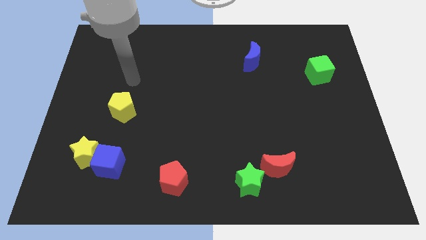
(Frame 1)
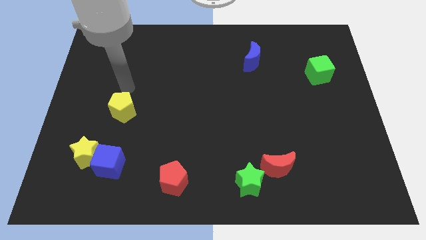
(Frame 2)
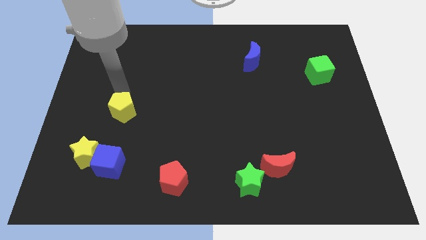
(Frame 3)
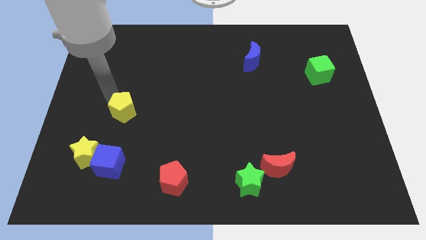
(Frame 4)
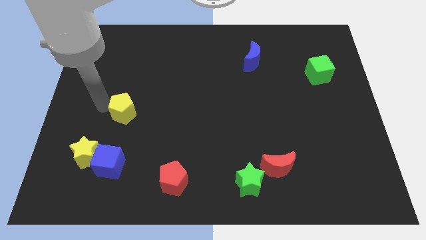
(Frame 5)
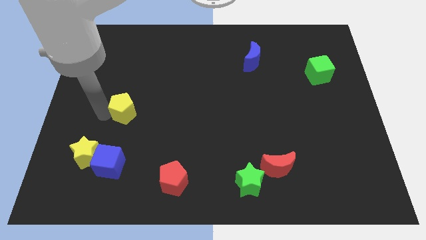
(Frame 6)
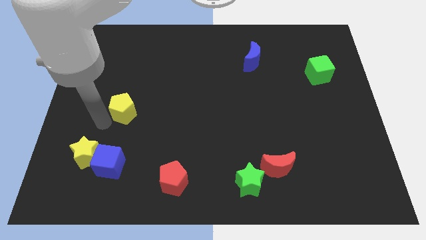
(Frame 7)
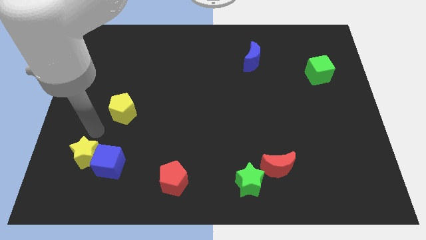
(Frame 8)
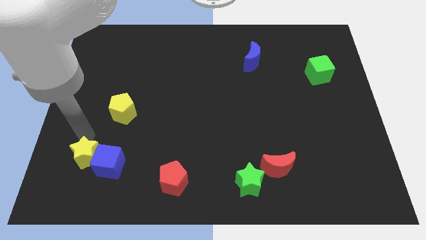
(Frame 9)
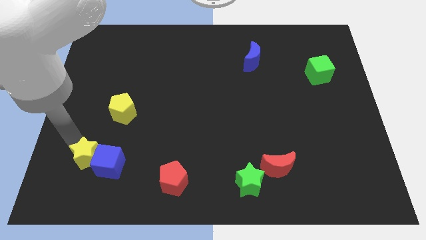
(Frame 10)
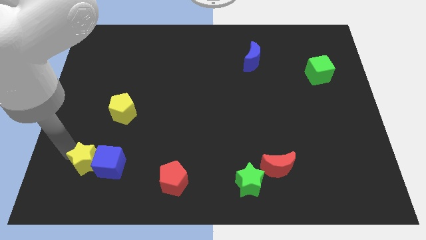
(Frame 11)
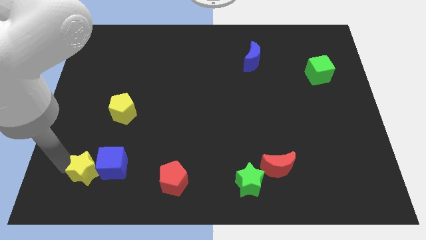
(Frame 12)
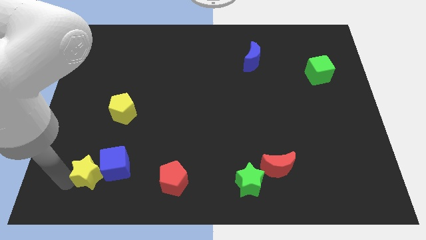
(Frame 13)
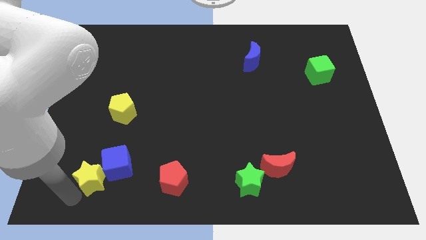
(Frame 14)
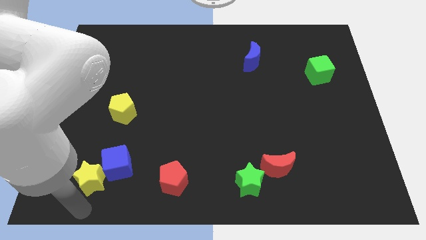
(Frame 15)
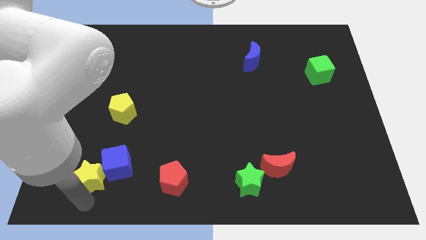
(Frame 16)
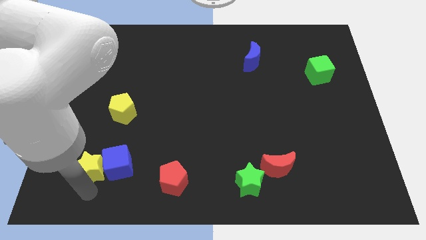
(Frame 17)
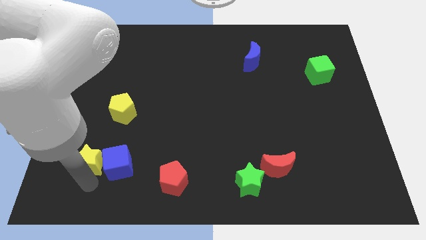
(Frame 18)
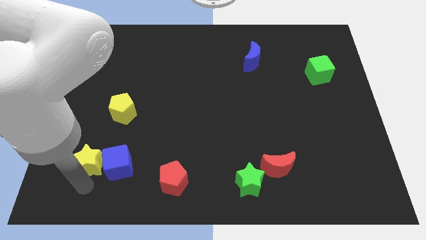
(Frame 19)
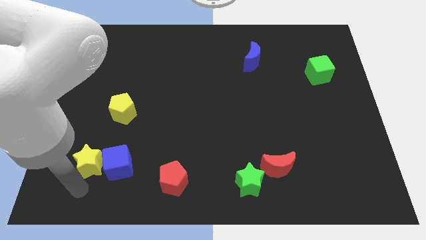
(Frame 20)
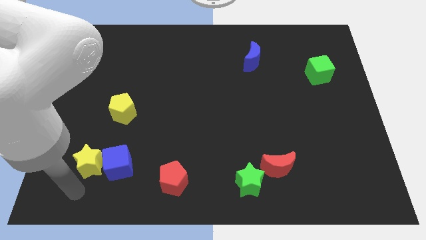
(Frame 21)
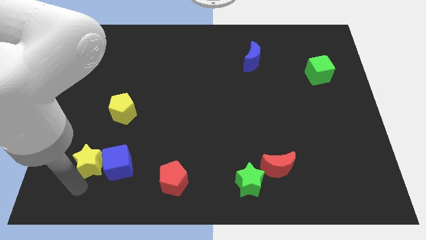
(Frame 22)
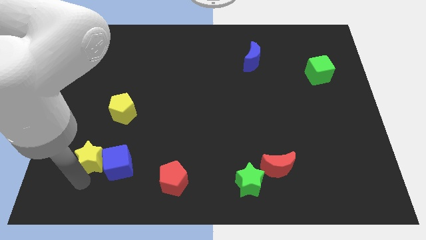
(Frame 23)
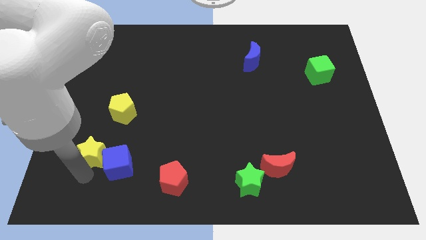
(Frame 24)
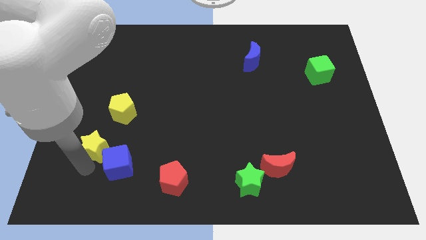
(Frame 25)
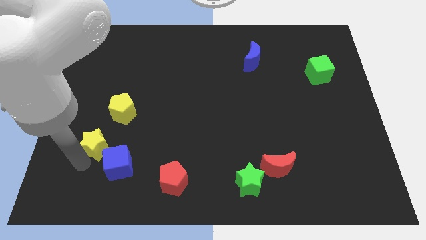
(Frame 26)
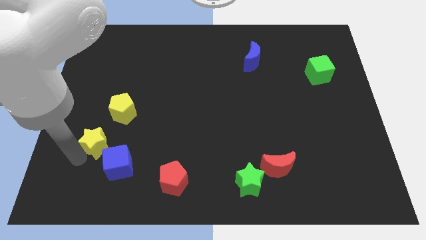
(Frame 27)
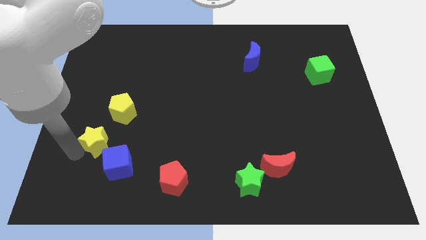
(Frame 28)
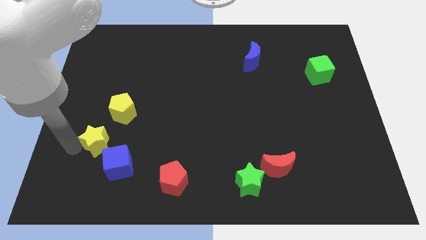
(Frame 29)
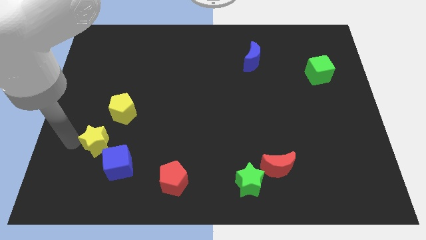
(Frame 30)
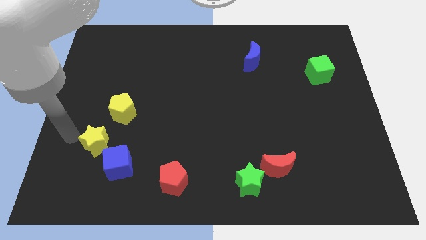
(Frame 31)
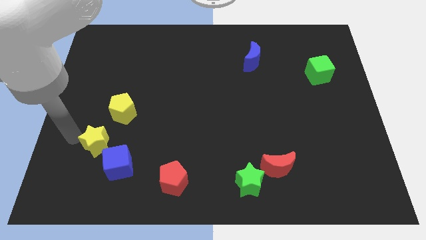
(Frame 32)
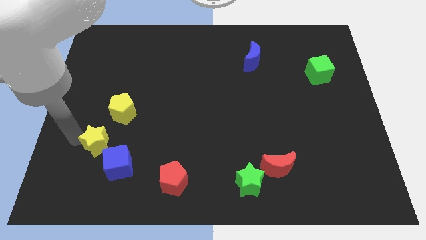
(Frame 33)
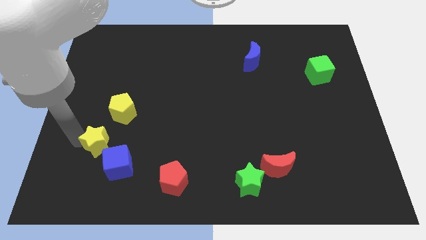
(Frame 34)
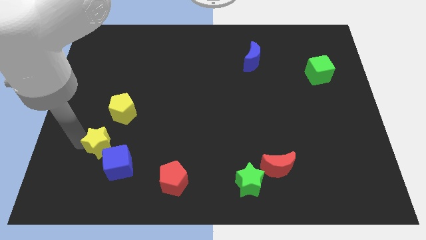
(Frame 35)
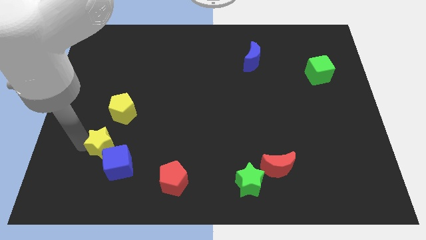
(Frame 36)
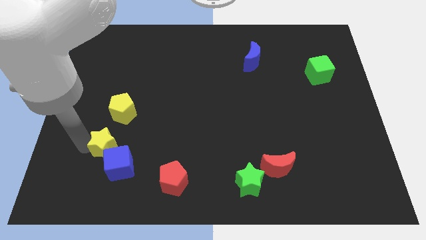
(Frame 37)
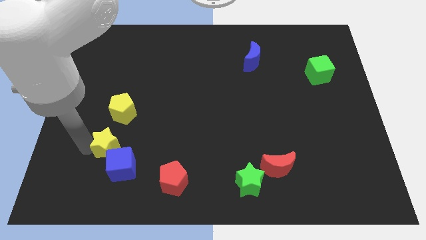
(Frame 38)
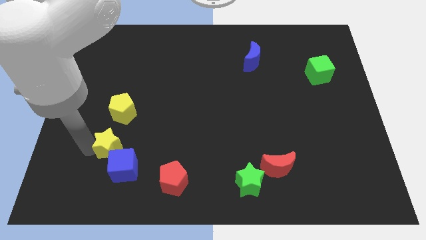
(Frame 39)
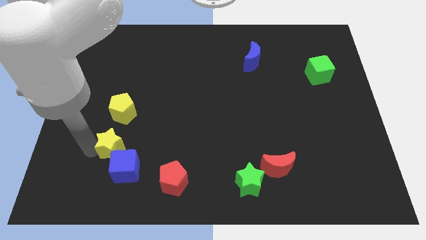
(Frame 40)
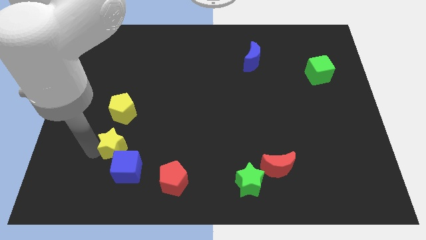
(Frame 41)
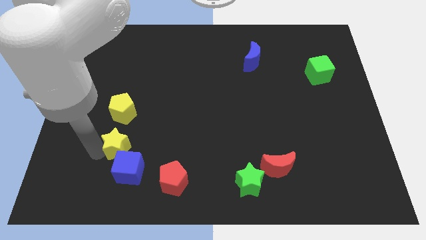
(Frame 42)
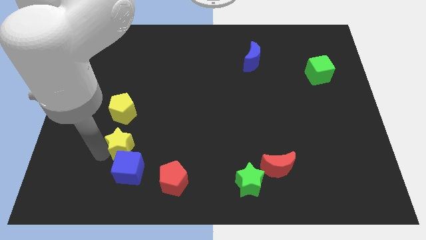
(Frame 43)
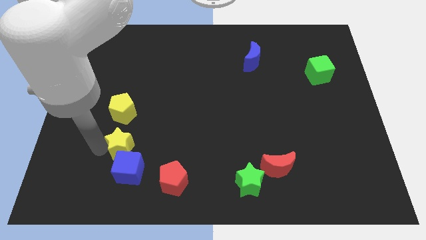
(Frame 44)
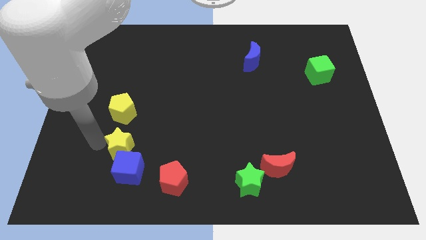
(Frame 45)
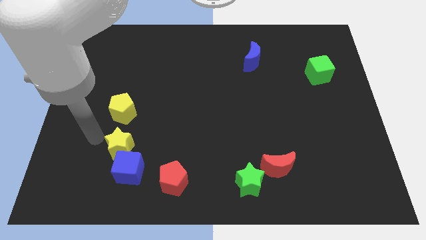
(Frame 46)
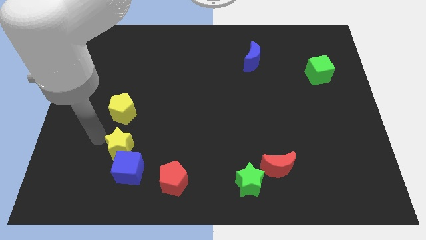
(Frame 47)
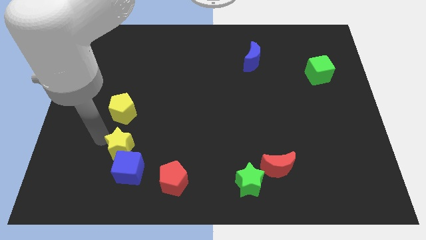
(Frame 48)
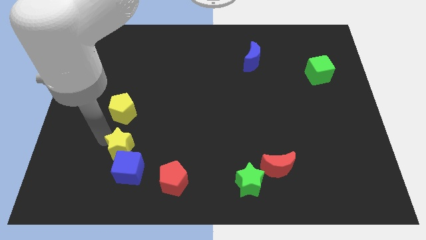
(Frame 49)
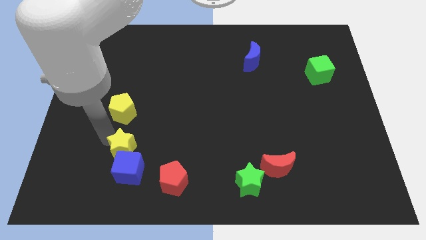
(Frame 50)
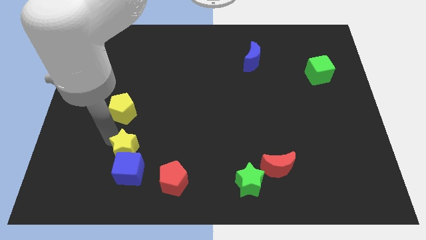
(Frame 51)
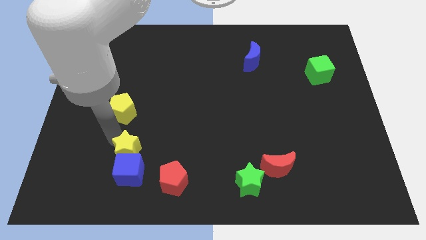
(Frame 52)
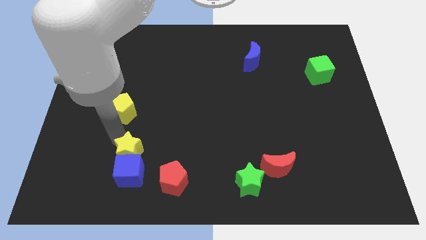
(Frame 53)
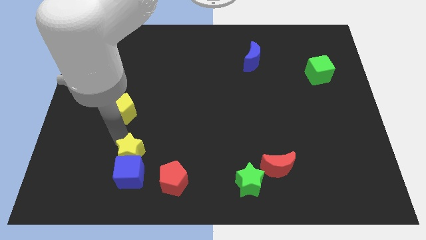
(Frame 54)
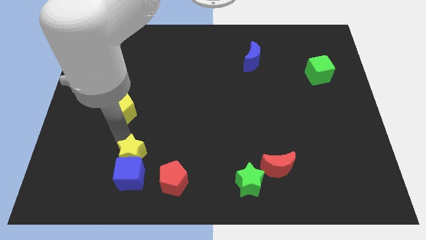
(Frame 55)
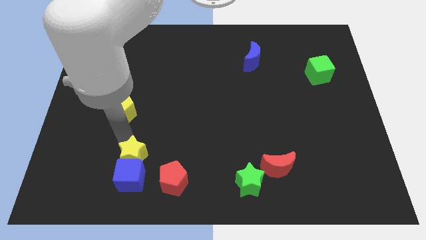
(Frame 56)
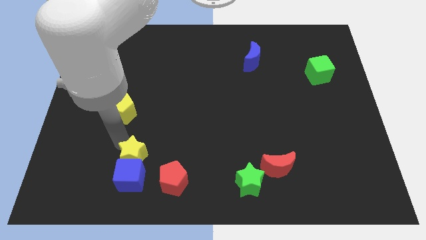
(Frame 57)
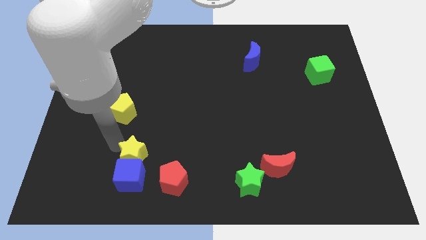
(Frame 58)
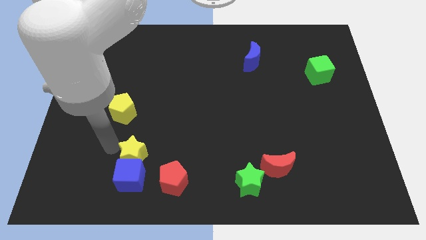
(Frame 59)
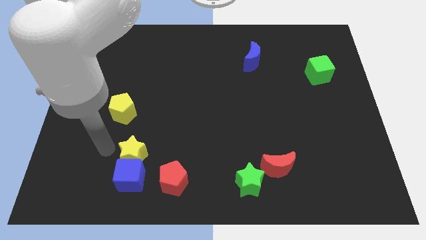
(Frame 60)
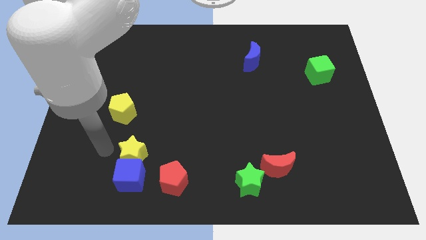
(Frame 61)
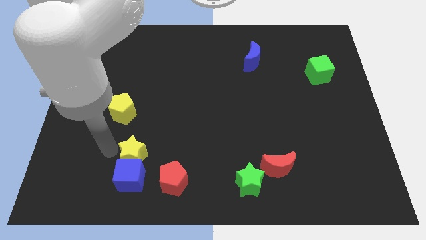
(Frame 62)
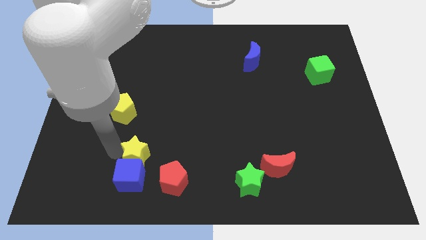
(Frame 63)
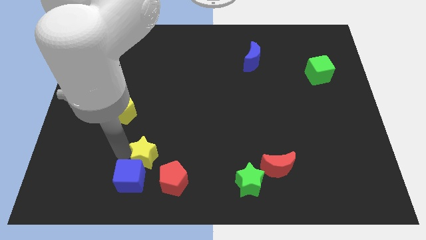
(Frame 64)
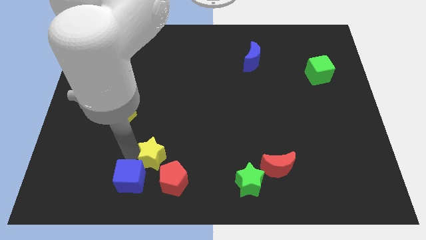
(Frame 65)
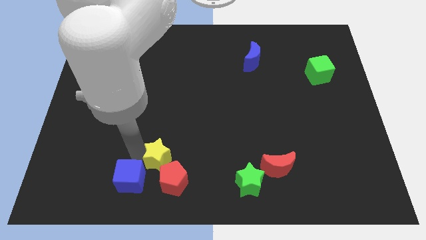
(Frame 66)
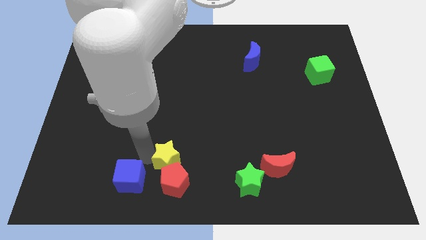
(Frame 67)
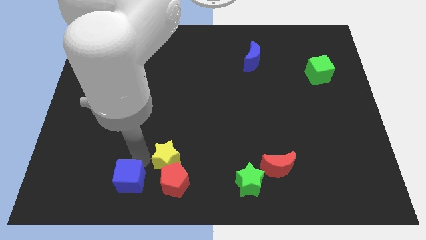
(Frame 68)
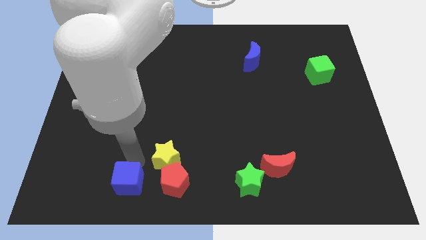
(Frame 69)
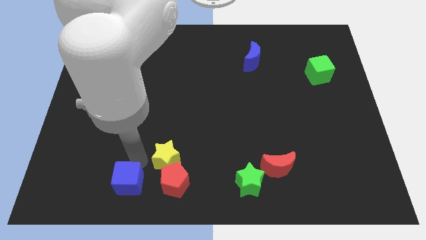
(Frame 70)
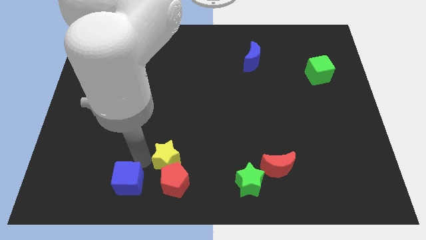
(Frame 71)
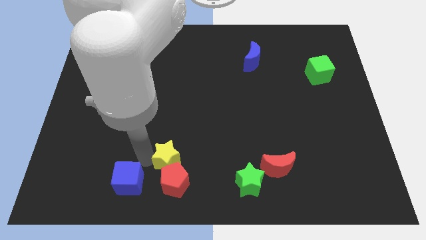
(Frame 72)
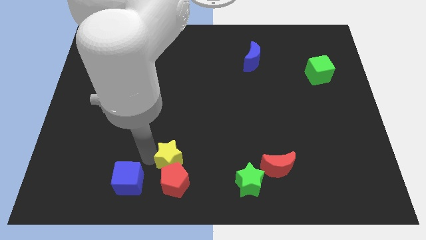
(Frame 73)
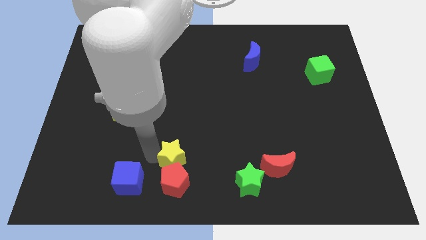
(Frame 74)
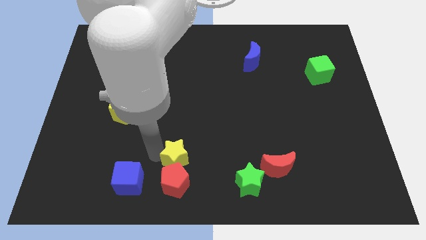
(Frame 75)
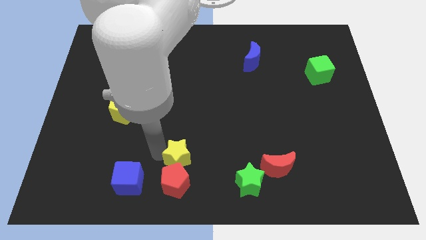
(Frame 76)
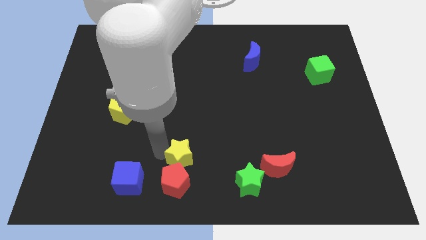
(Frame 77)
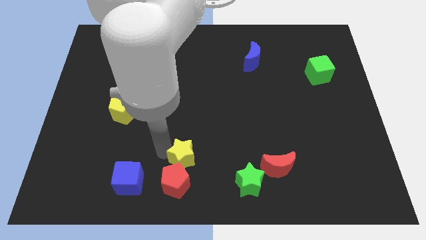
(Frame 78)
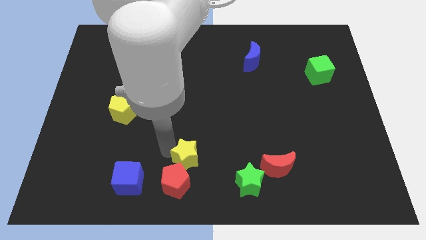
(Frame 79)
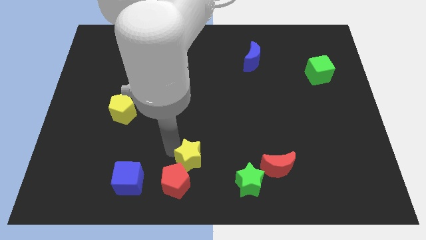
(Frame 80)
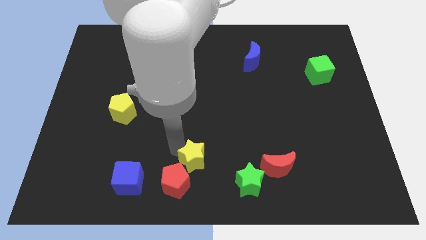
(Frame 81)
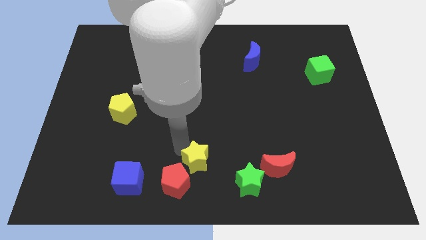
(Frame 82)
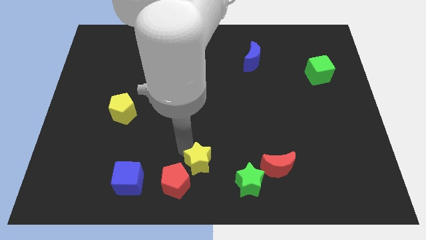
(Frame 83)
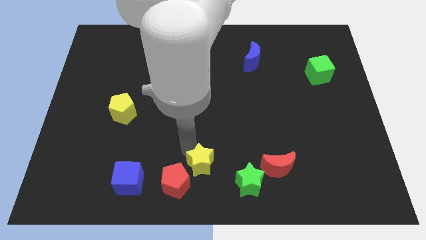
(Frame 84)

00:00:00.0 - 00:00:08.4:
slide the yellow star just left of the red moon
